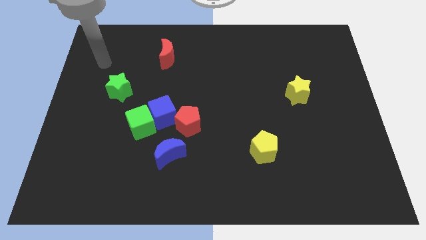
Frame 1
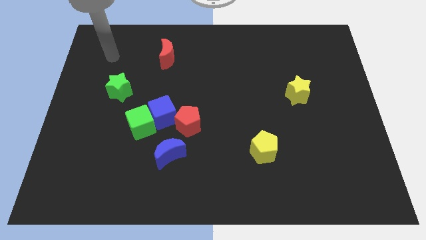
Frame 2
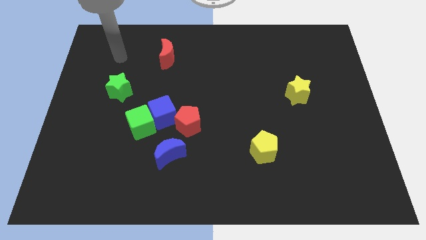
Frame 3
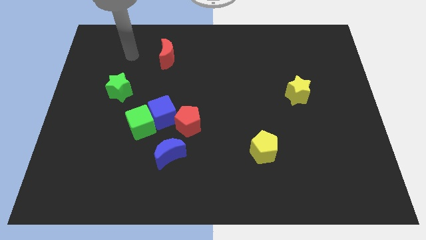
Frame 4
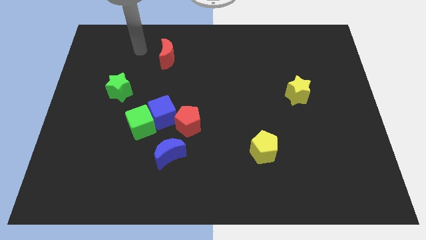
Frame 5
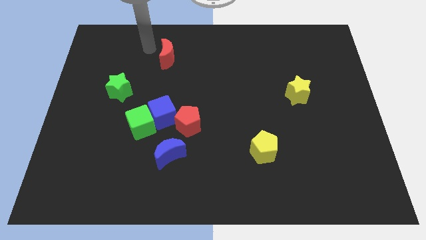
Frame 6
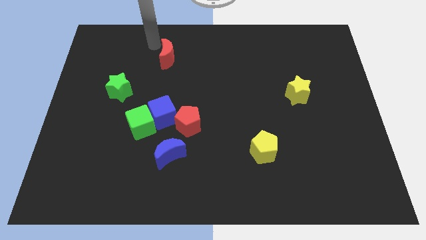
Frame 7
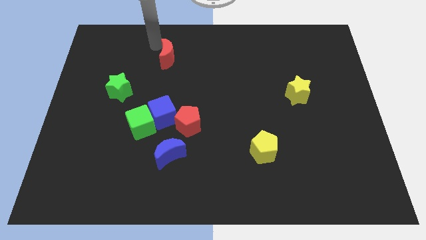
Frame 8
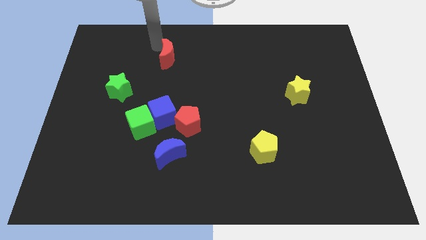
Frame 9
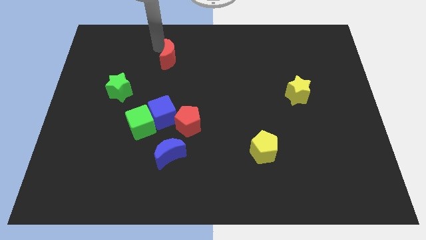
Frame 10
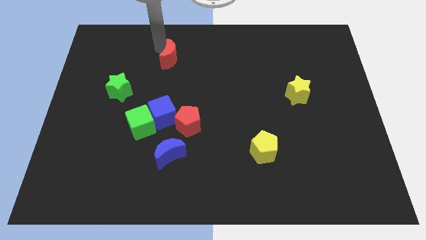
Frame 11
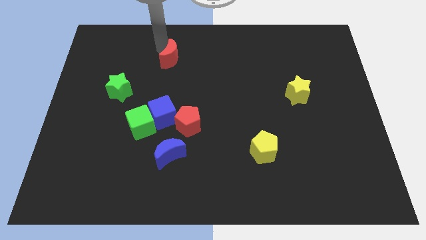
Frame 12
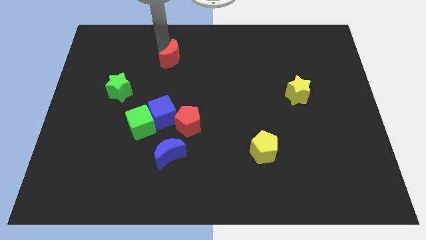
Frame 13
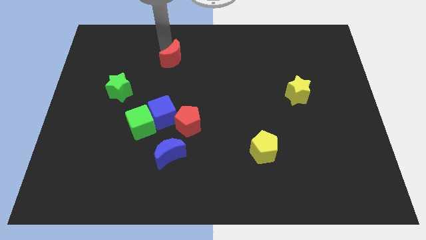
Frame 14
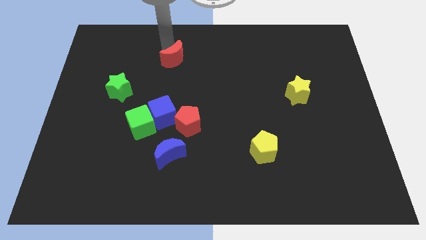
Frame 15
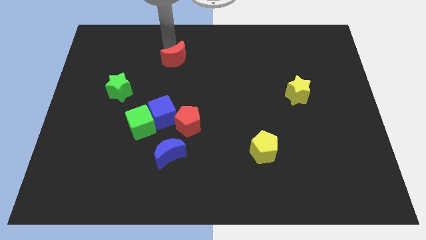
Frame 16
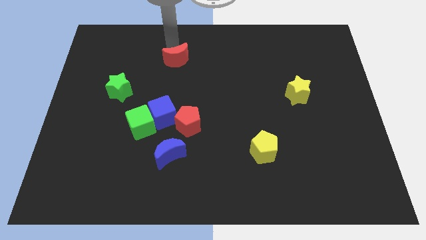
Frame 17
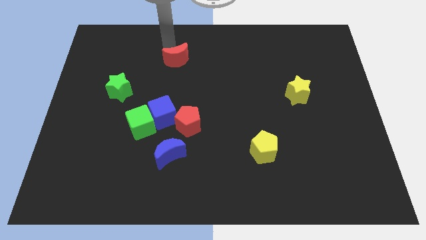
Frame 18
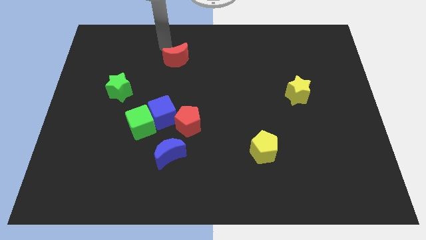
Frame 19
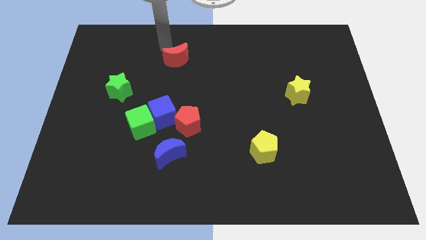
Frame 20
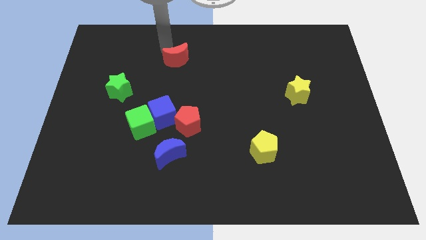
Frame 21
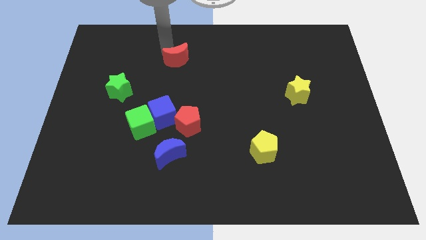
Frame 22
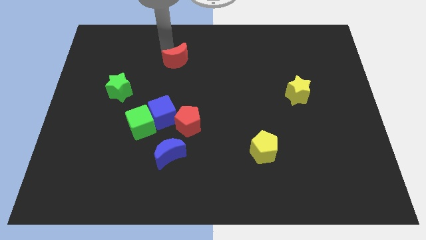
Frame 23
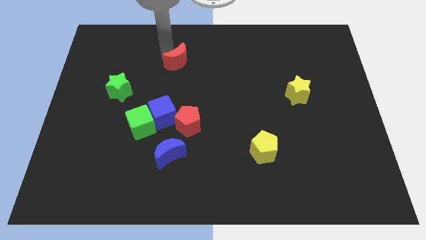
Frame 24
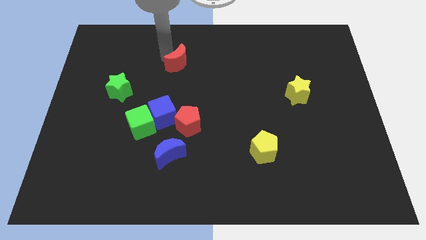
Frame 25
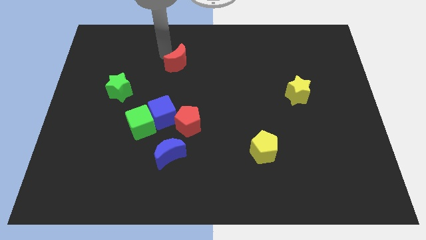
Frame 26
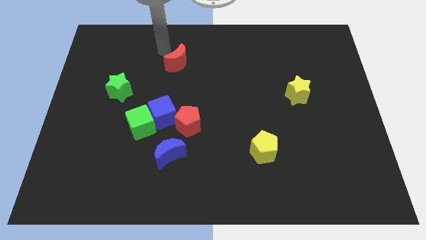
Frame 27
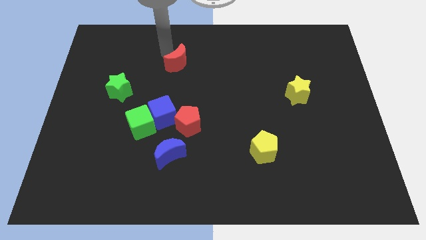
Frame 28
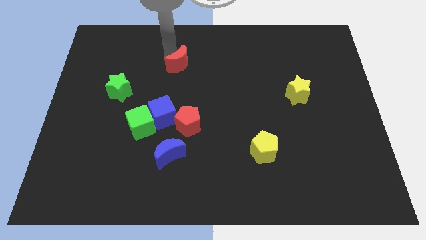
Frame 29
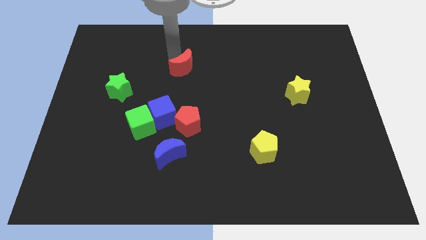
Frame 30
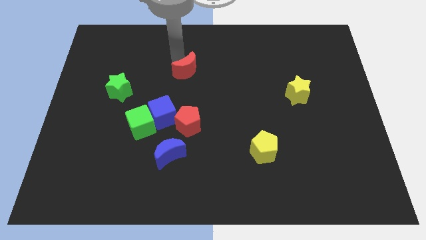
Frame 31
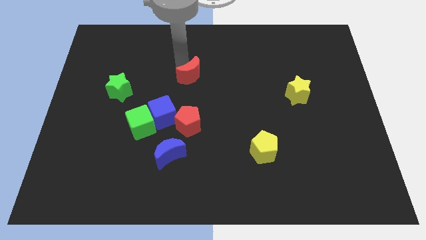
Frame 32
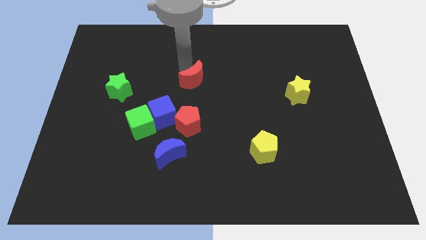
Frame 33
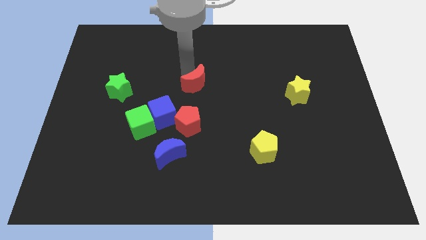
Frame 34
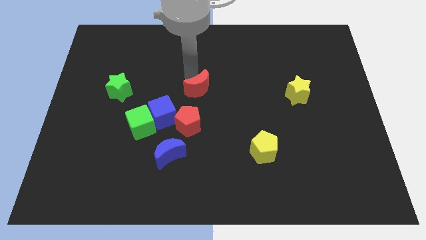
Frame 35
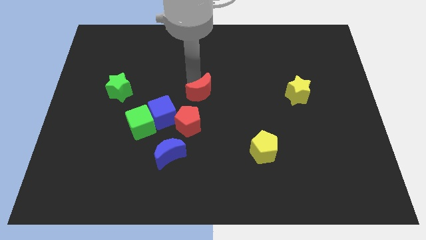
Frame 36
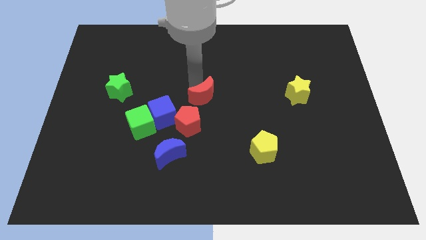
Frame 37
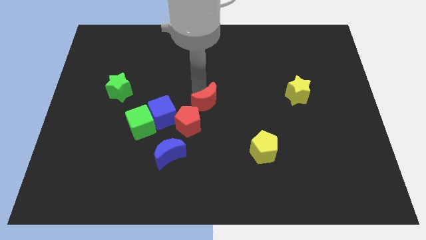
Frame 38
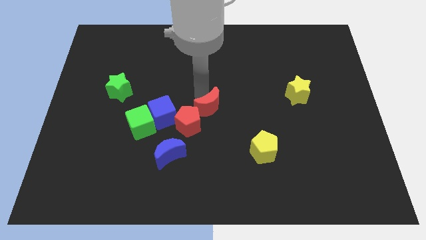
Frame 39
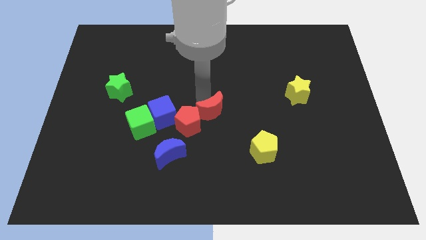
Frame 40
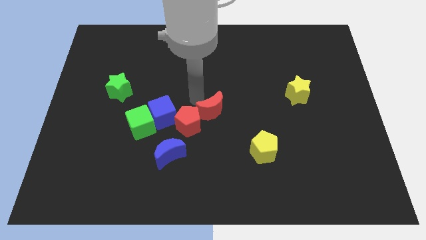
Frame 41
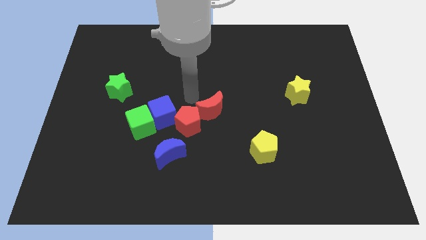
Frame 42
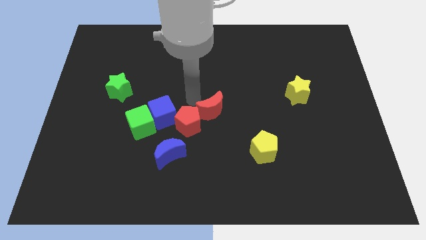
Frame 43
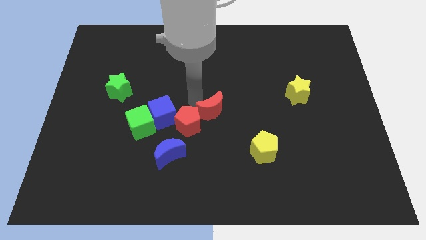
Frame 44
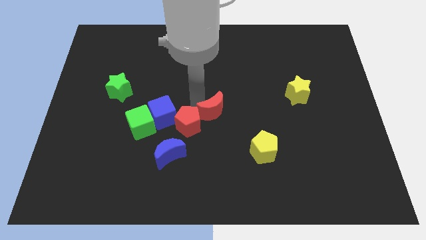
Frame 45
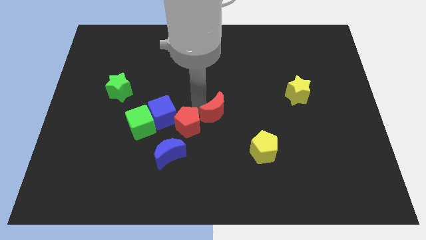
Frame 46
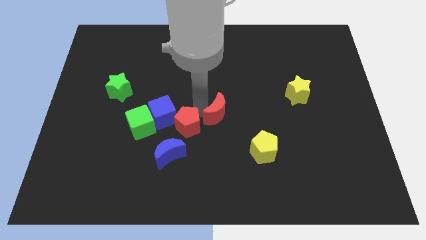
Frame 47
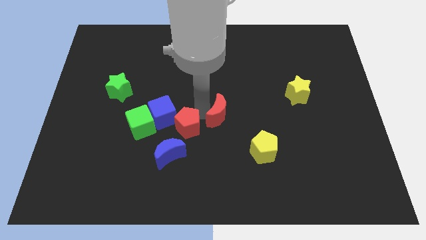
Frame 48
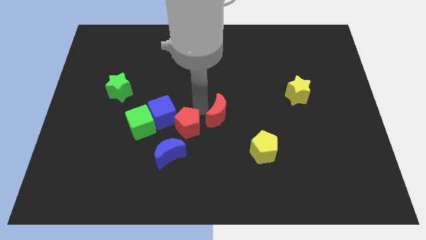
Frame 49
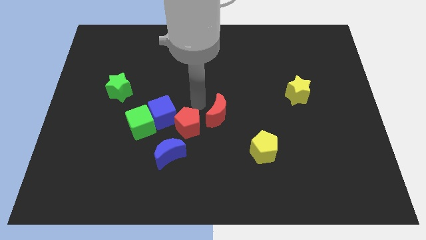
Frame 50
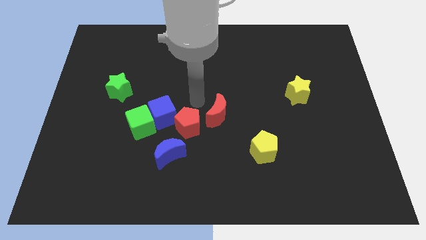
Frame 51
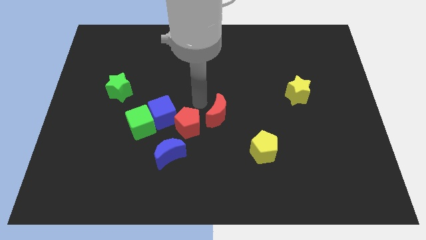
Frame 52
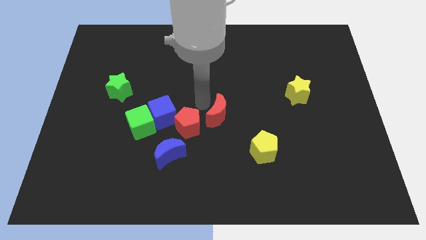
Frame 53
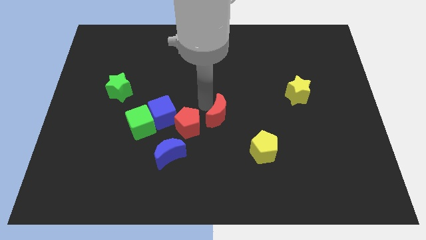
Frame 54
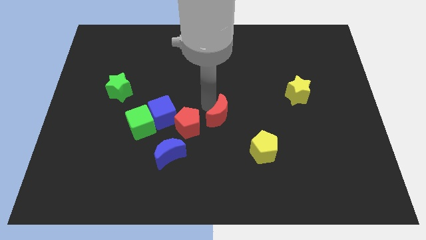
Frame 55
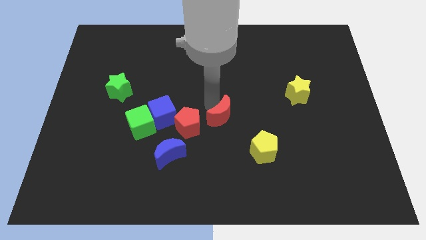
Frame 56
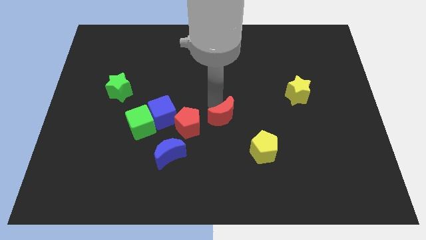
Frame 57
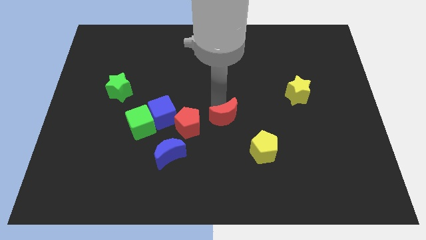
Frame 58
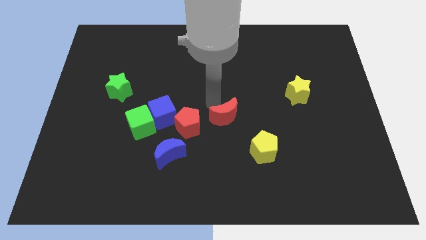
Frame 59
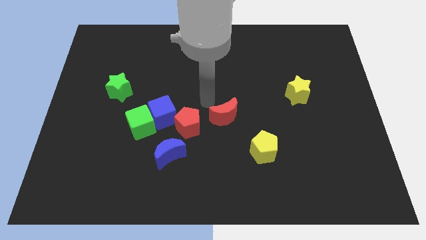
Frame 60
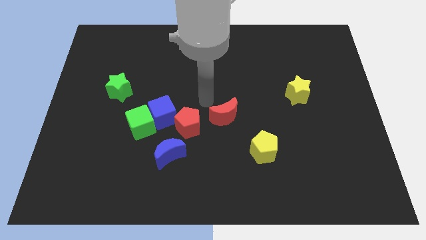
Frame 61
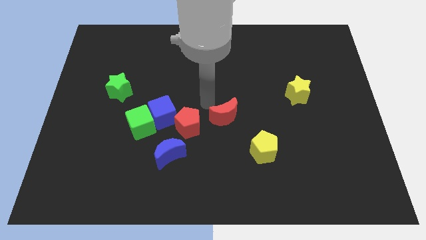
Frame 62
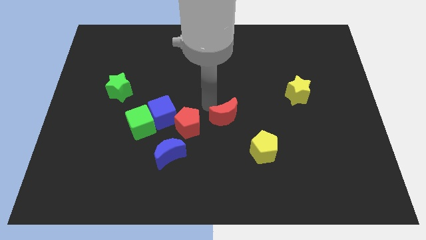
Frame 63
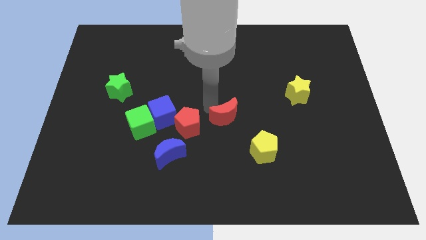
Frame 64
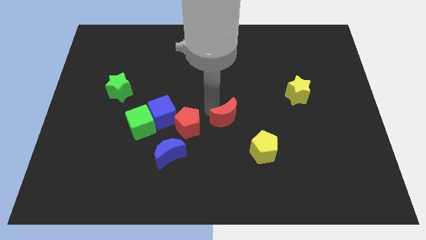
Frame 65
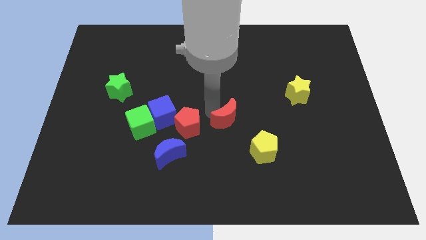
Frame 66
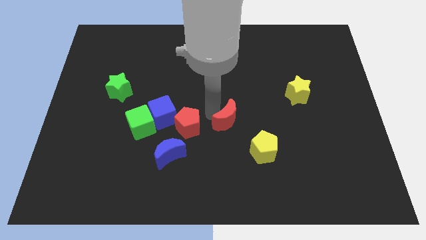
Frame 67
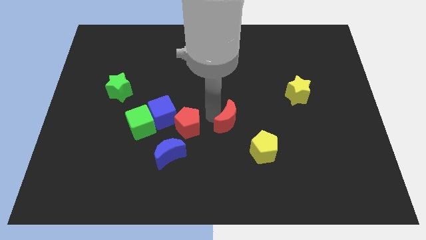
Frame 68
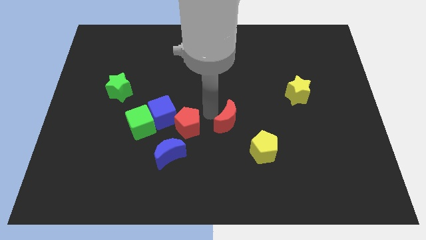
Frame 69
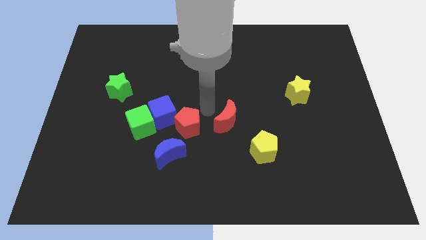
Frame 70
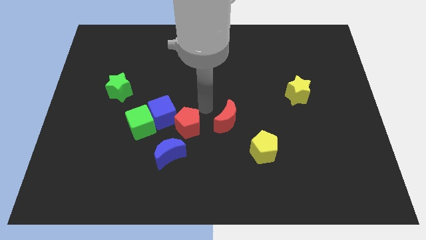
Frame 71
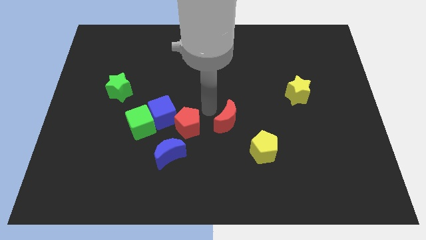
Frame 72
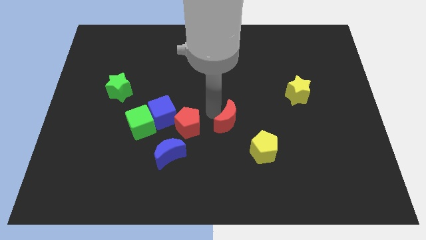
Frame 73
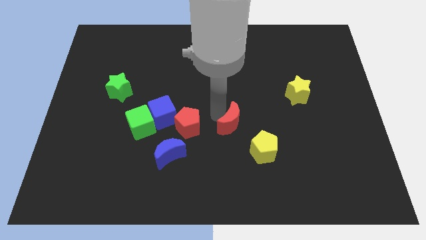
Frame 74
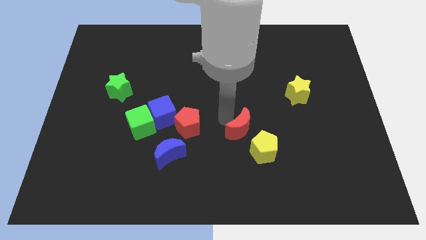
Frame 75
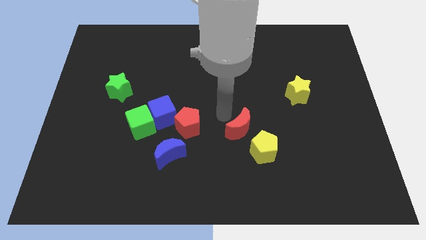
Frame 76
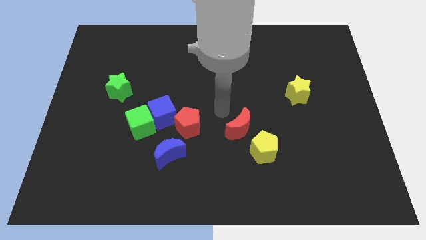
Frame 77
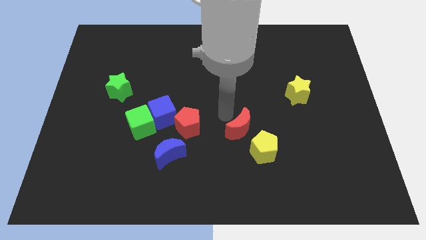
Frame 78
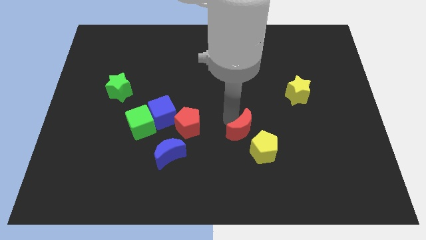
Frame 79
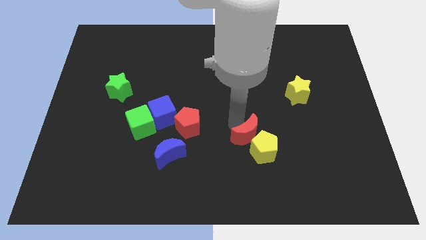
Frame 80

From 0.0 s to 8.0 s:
push the red moon to the yellow pentagon
